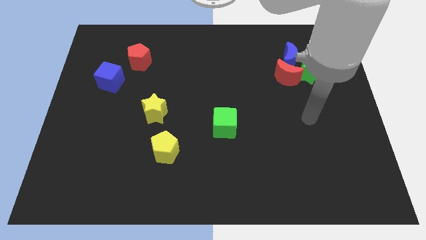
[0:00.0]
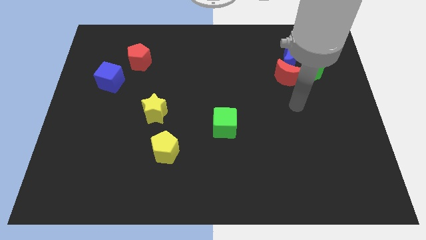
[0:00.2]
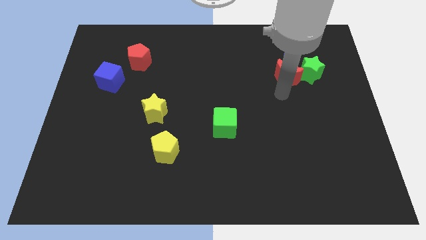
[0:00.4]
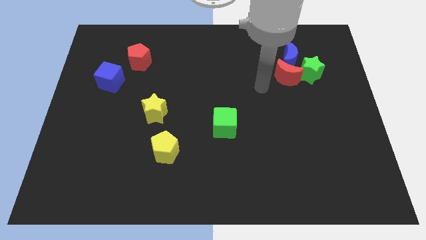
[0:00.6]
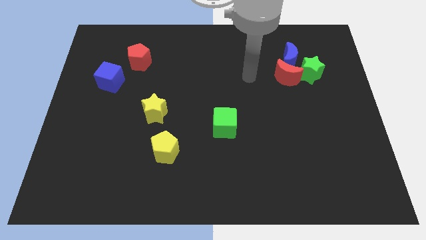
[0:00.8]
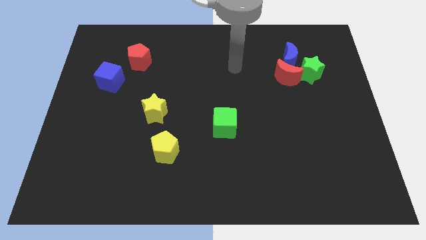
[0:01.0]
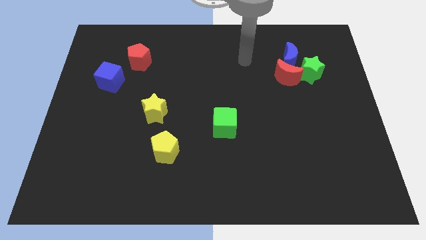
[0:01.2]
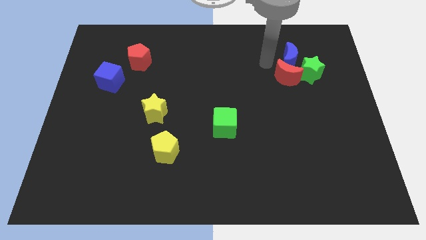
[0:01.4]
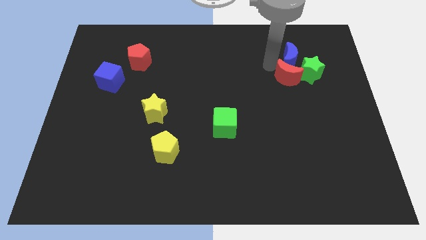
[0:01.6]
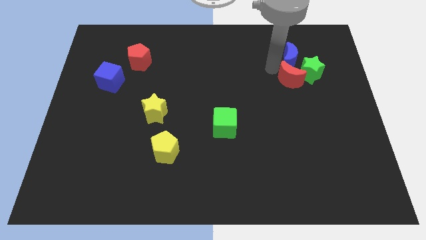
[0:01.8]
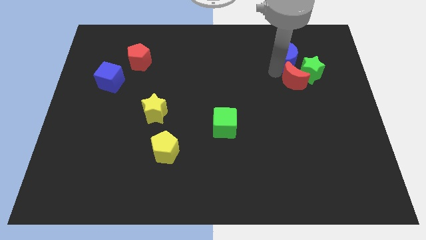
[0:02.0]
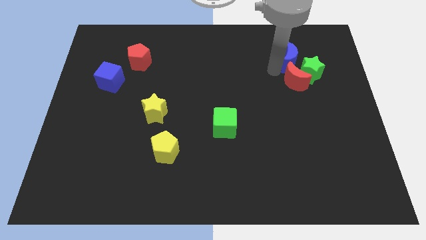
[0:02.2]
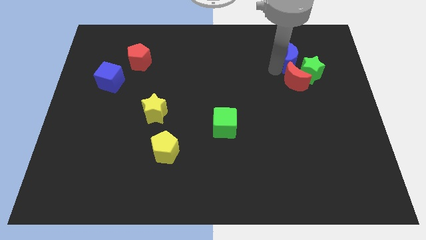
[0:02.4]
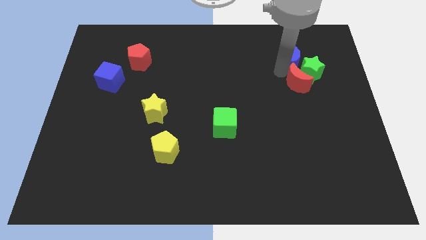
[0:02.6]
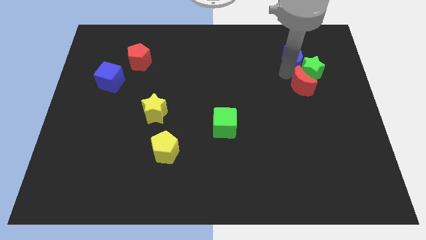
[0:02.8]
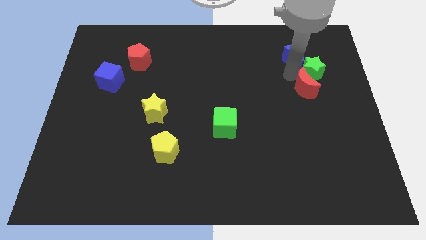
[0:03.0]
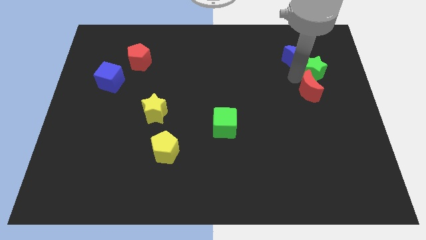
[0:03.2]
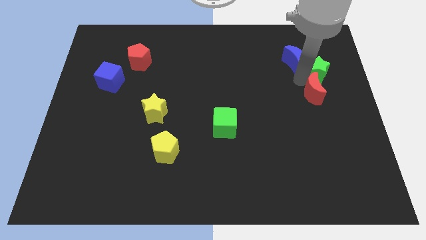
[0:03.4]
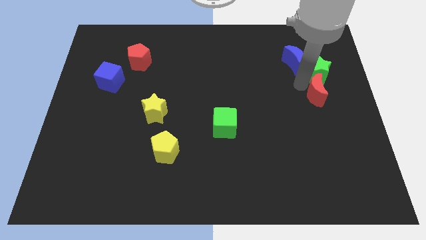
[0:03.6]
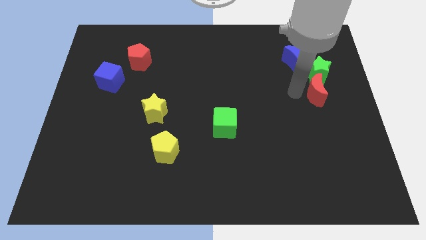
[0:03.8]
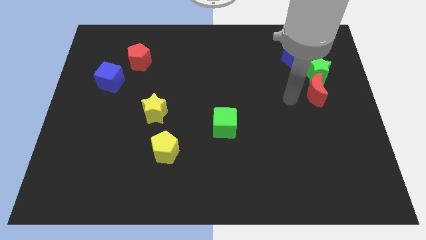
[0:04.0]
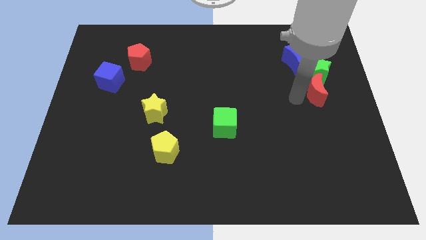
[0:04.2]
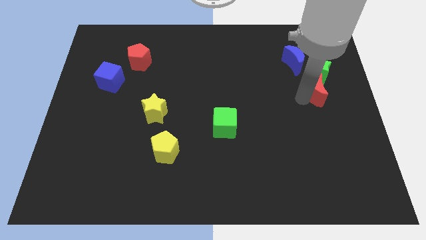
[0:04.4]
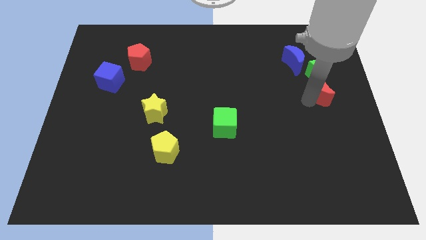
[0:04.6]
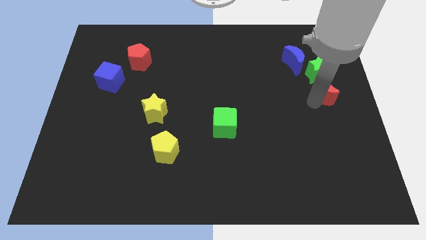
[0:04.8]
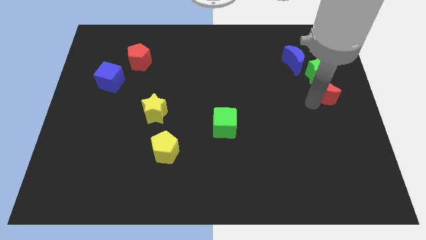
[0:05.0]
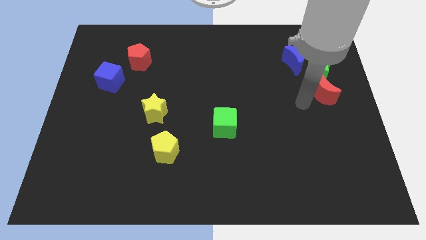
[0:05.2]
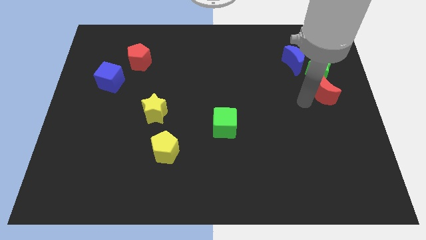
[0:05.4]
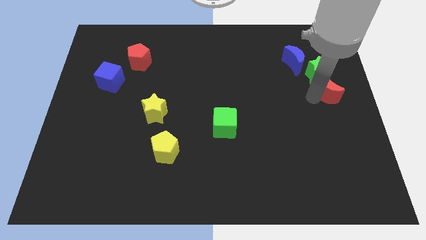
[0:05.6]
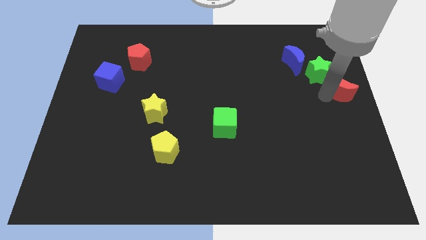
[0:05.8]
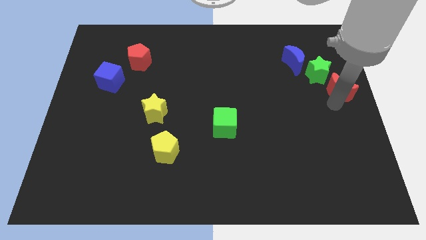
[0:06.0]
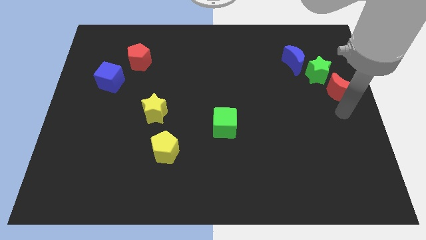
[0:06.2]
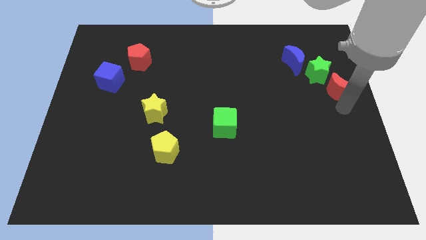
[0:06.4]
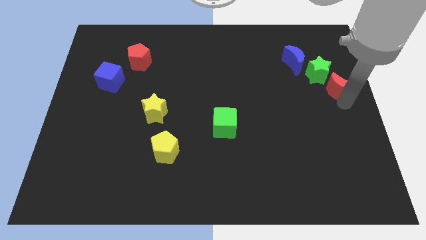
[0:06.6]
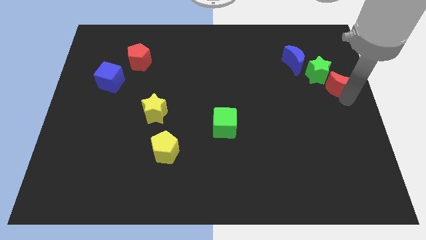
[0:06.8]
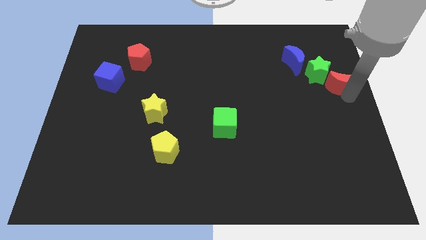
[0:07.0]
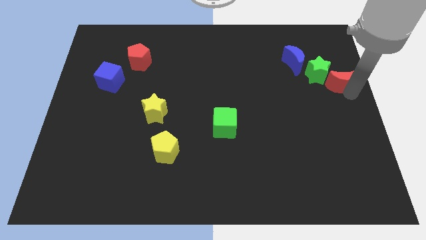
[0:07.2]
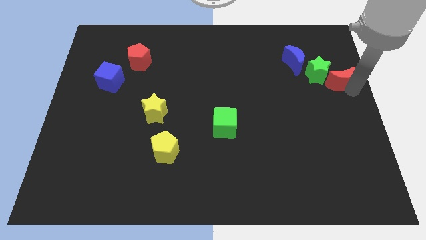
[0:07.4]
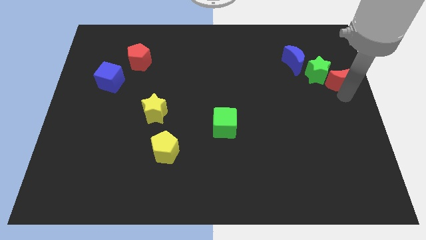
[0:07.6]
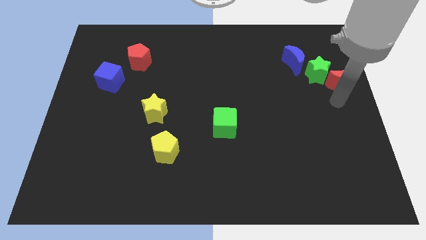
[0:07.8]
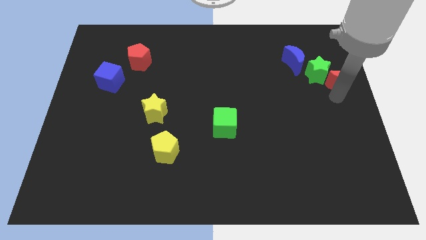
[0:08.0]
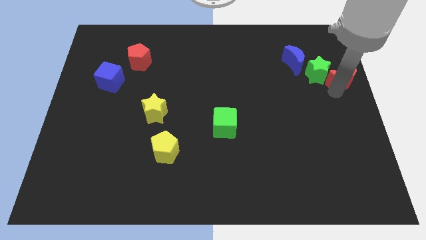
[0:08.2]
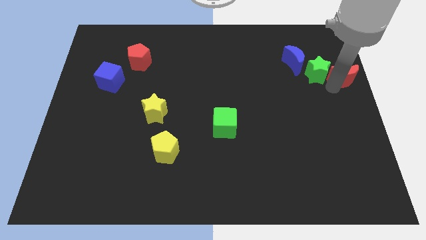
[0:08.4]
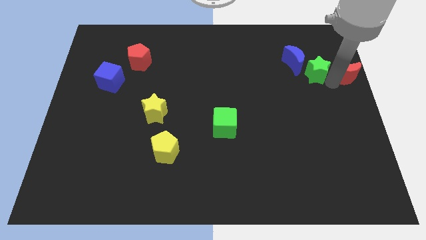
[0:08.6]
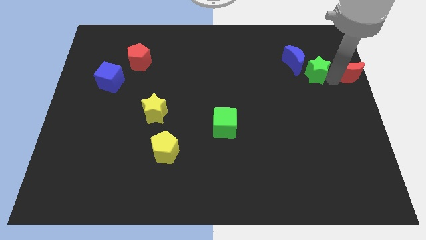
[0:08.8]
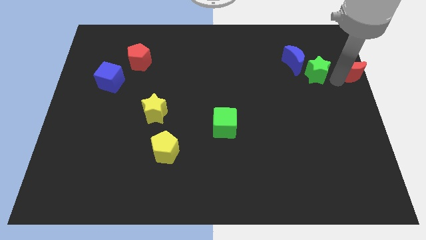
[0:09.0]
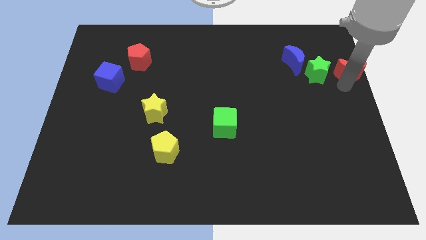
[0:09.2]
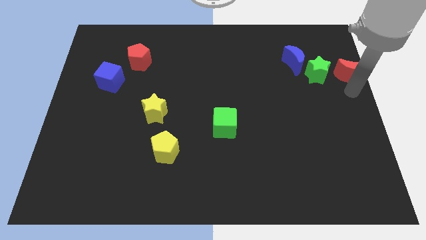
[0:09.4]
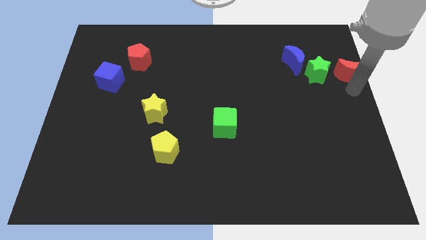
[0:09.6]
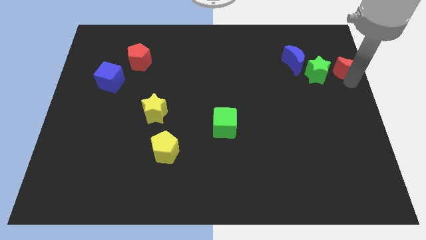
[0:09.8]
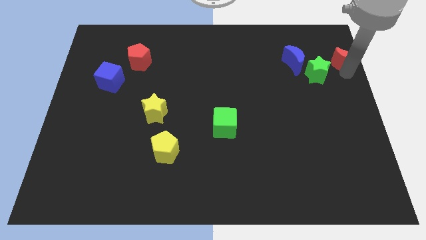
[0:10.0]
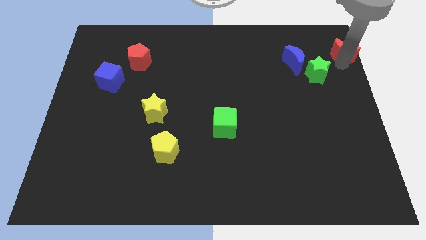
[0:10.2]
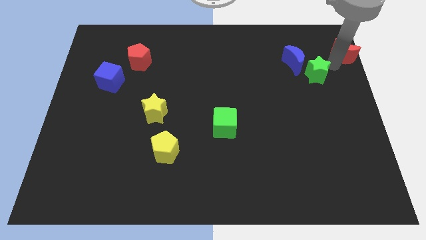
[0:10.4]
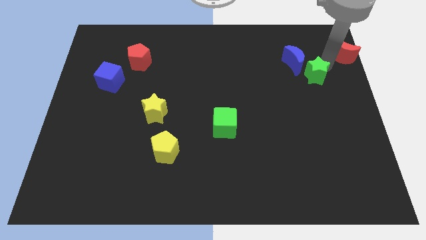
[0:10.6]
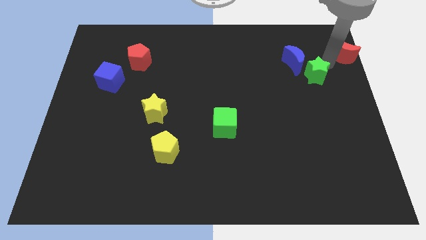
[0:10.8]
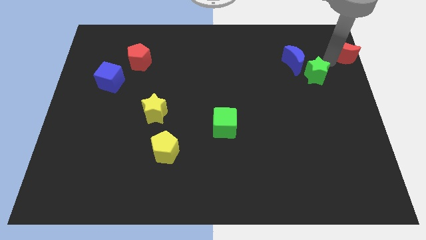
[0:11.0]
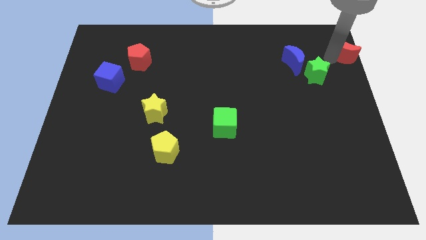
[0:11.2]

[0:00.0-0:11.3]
put the red moon to the top right of the board

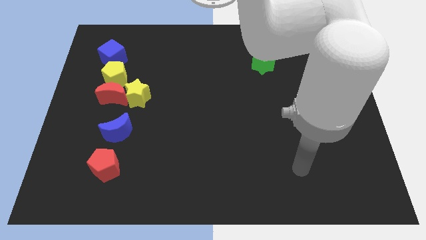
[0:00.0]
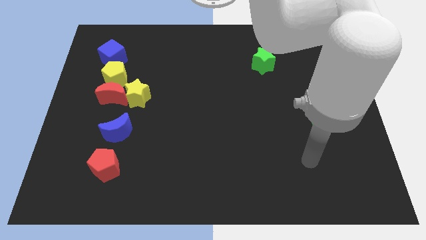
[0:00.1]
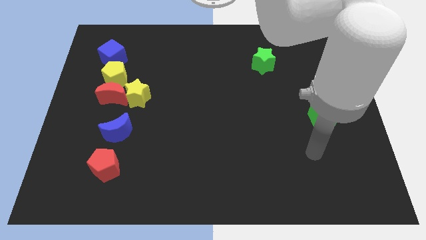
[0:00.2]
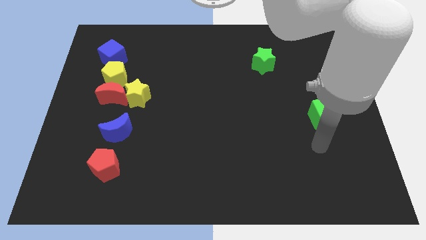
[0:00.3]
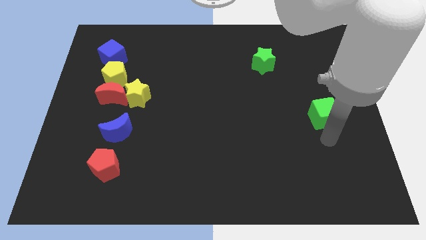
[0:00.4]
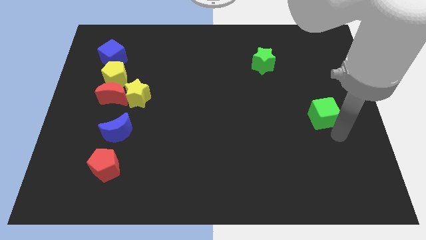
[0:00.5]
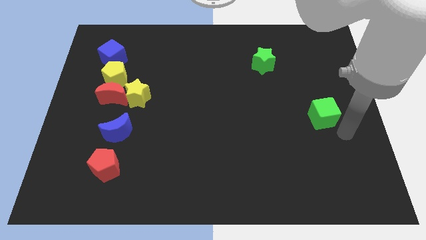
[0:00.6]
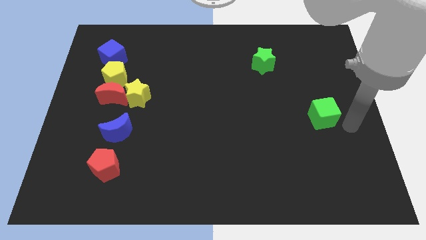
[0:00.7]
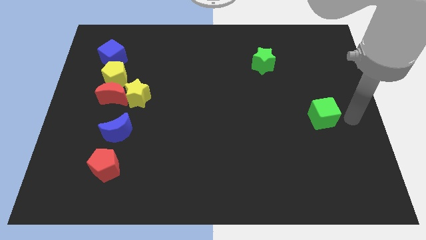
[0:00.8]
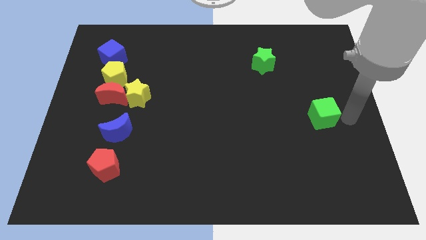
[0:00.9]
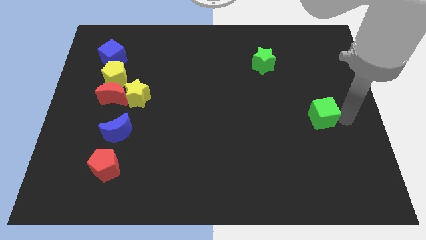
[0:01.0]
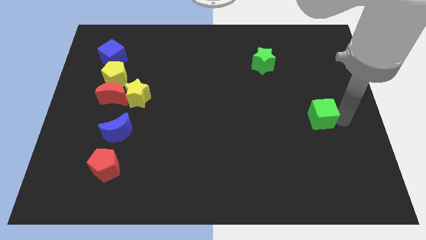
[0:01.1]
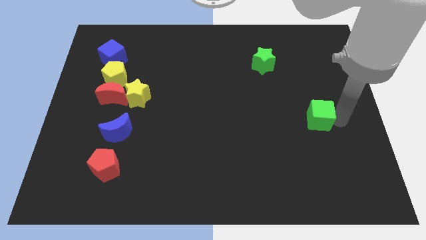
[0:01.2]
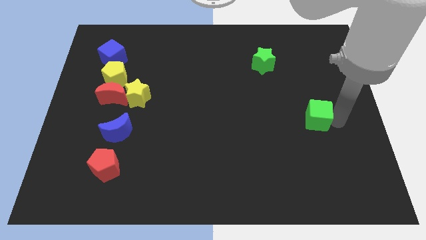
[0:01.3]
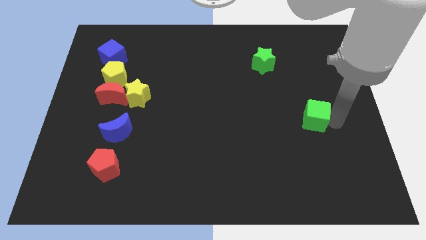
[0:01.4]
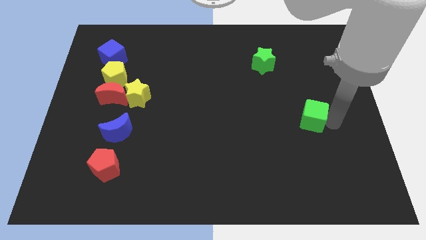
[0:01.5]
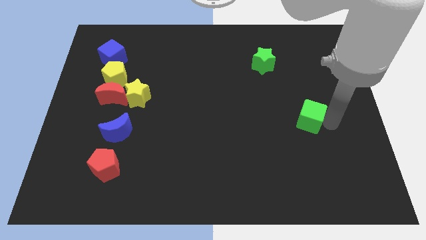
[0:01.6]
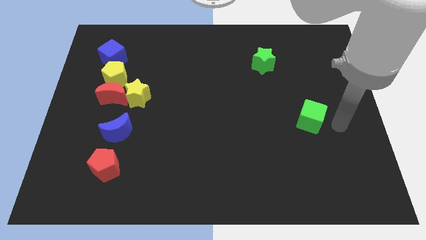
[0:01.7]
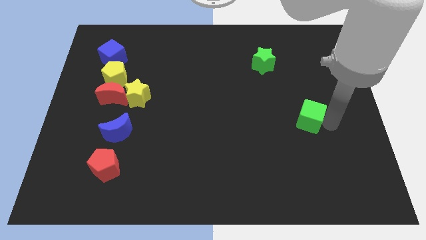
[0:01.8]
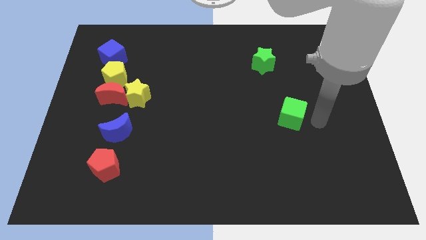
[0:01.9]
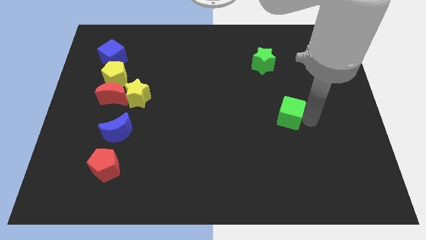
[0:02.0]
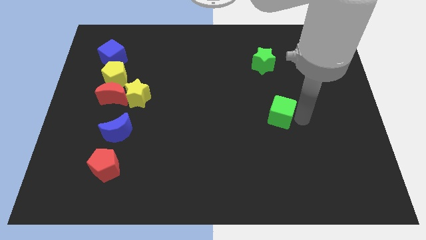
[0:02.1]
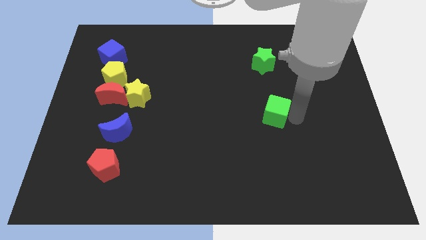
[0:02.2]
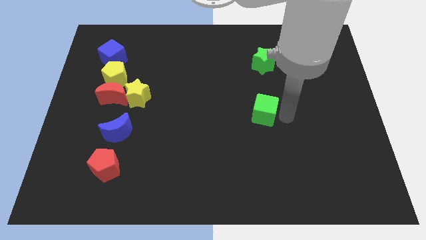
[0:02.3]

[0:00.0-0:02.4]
push the green cube to the middle of the board
